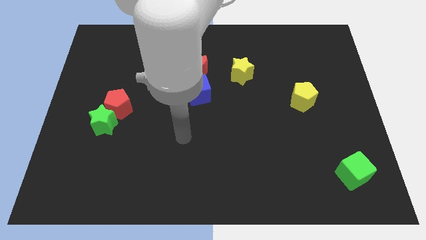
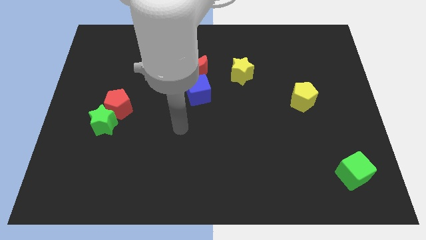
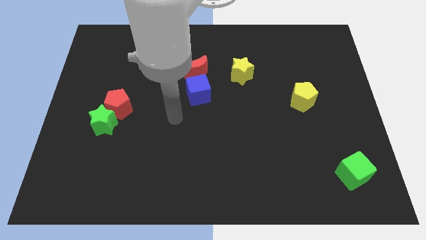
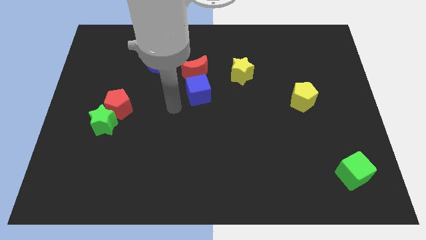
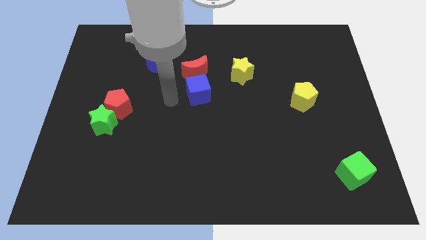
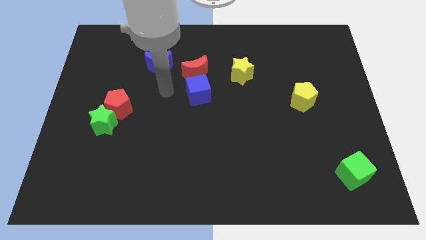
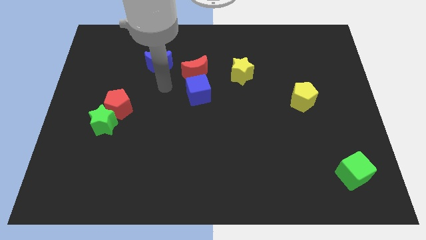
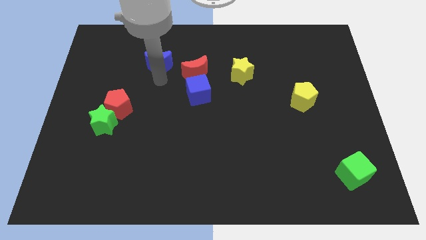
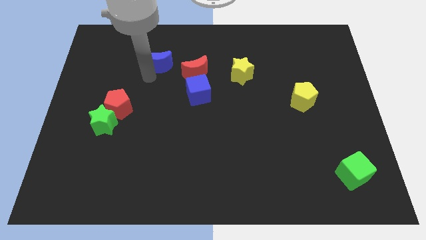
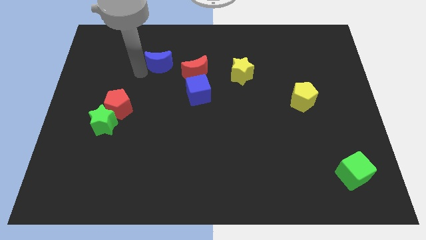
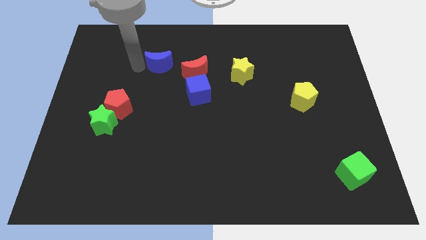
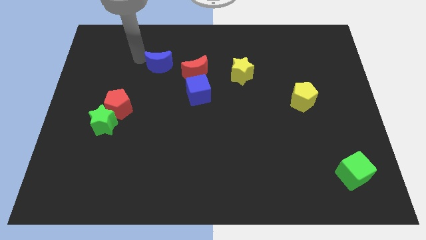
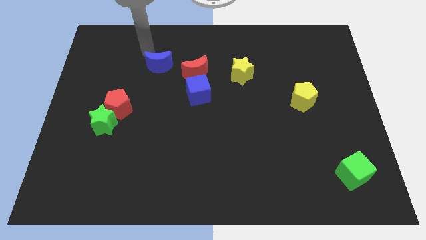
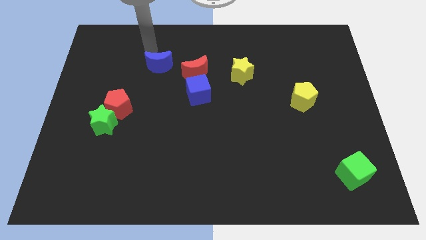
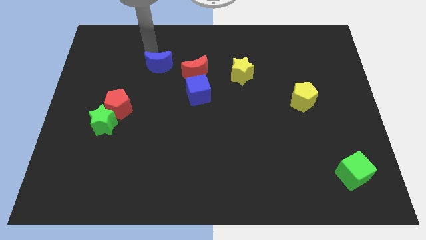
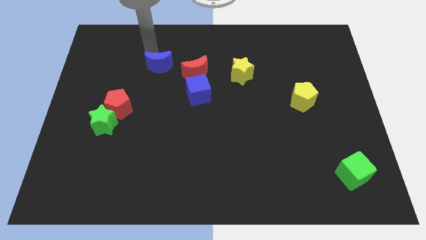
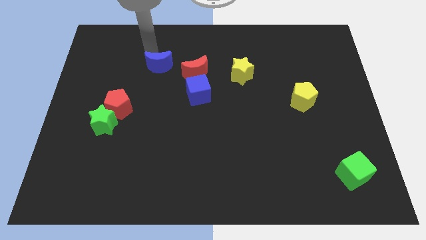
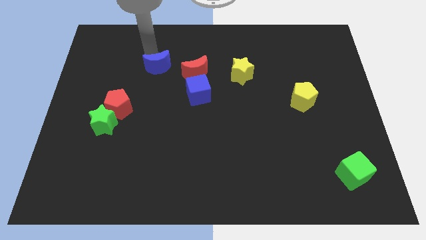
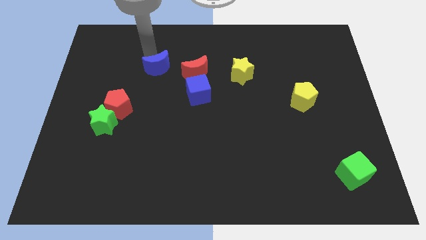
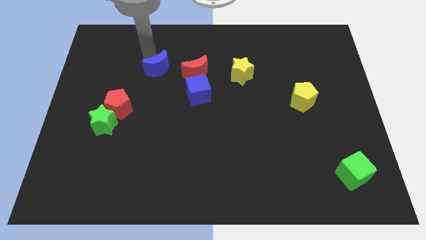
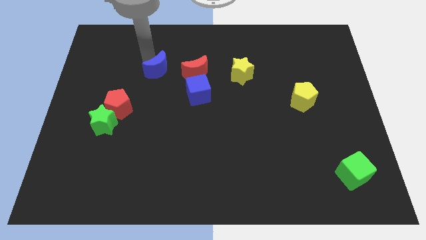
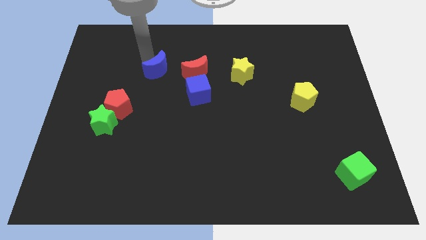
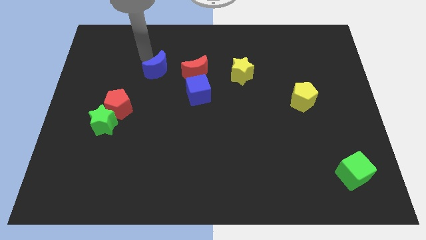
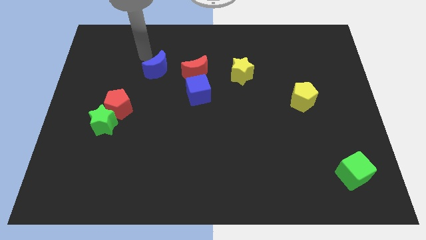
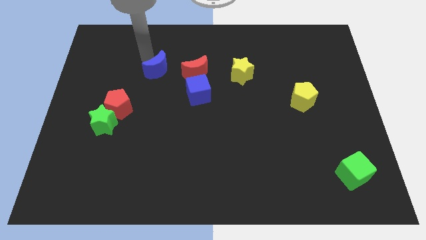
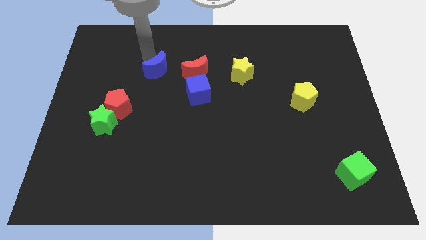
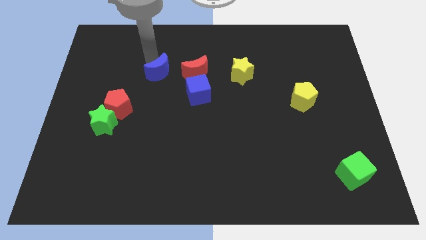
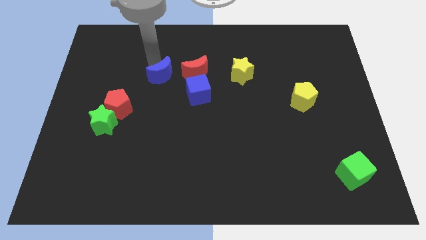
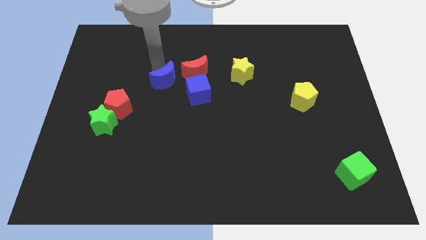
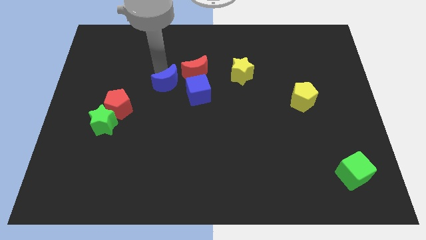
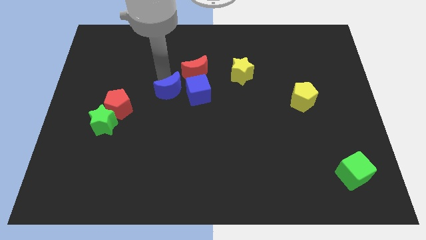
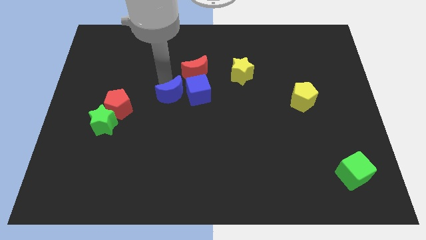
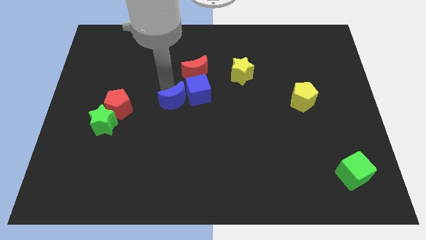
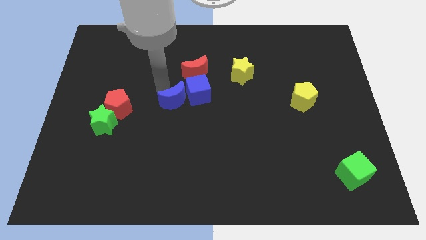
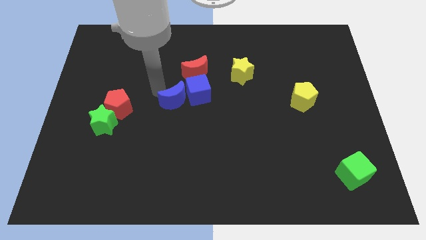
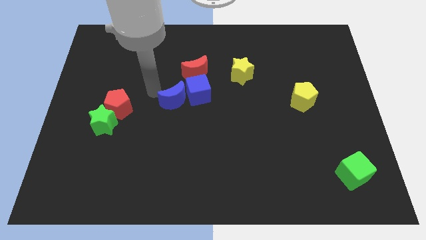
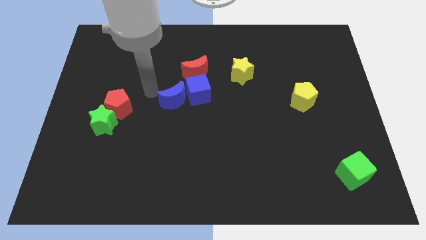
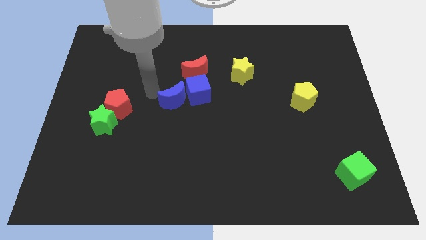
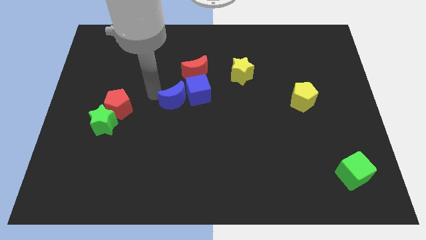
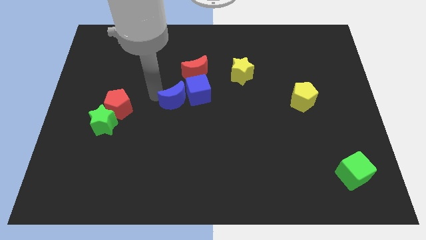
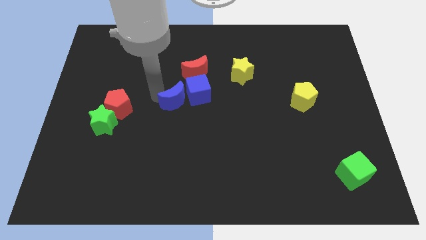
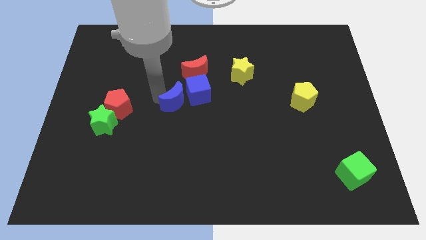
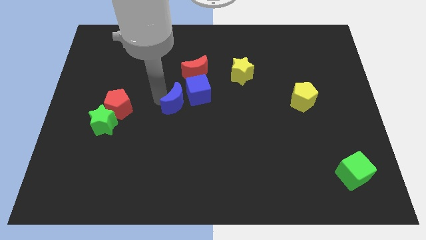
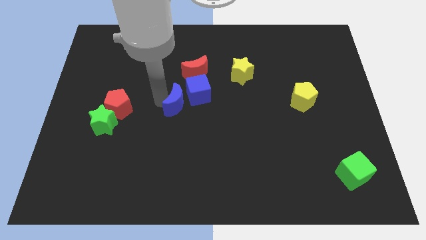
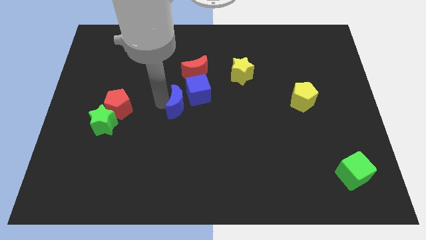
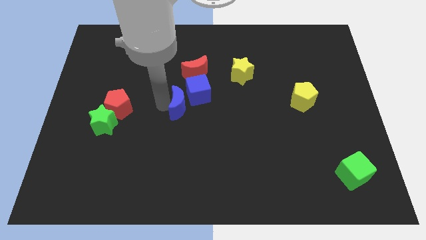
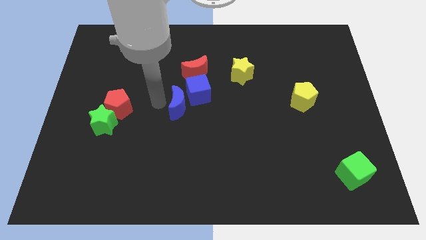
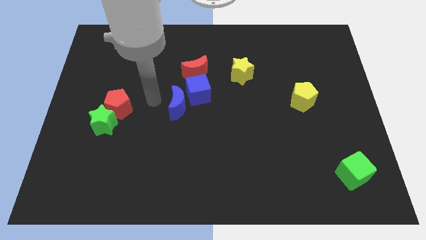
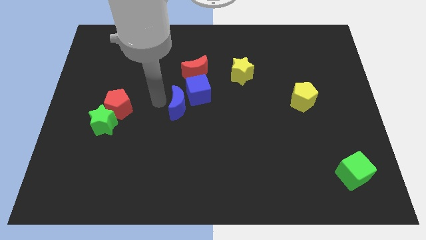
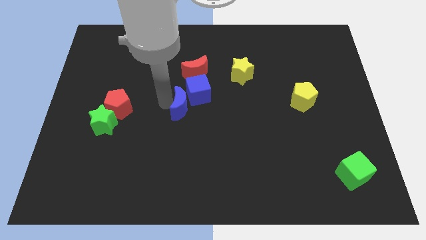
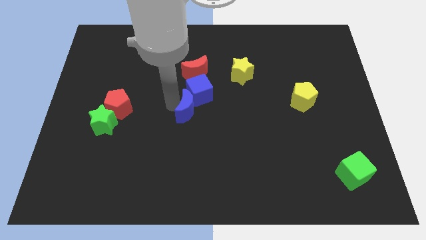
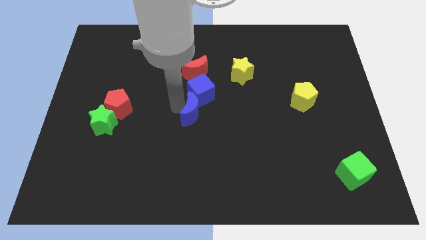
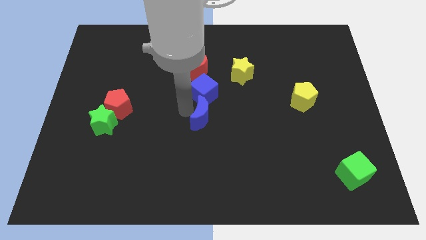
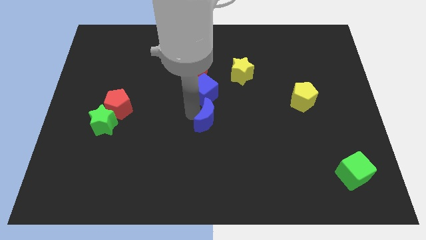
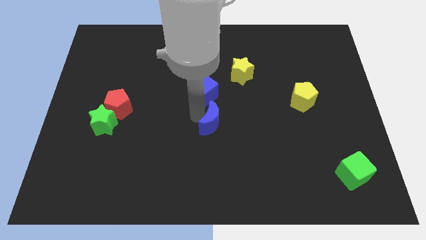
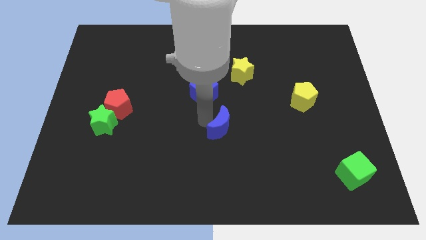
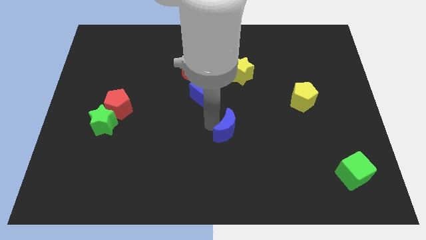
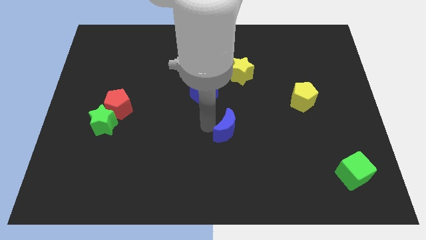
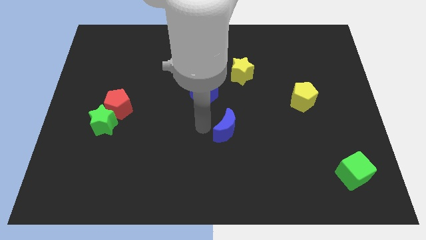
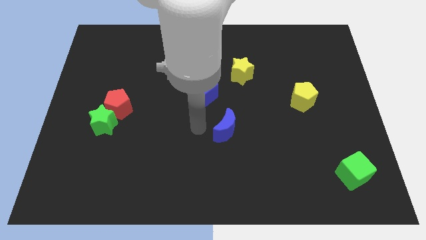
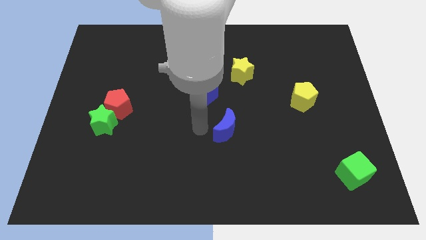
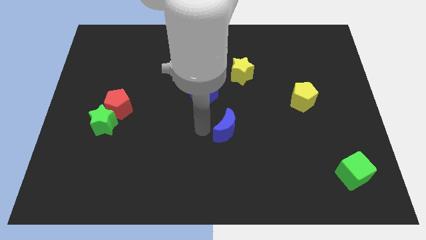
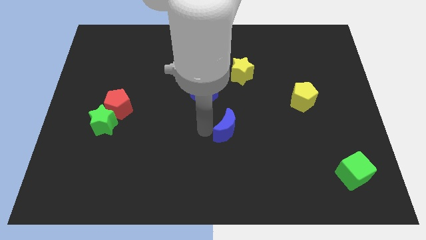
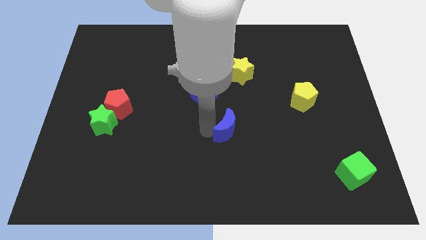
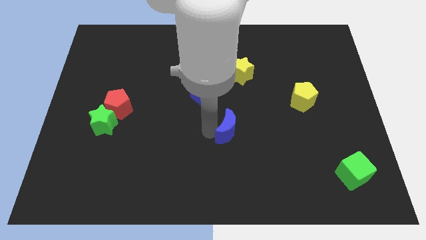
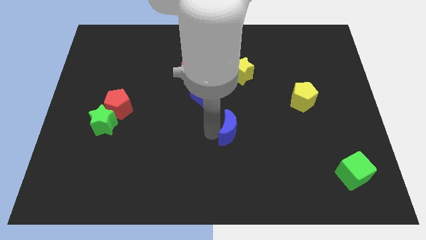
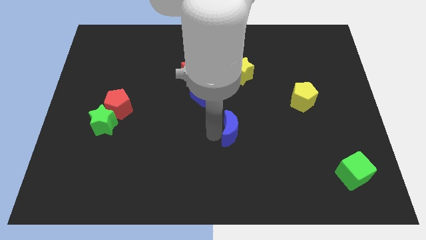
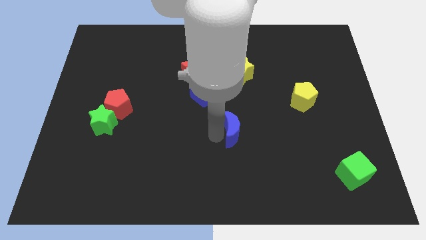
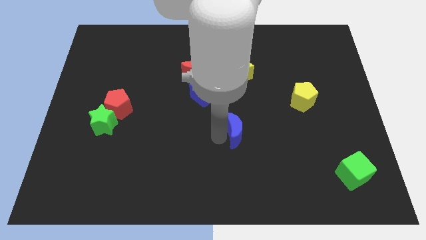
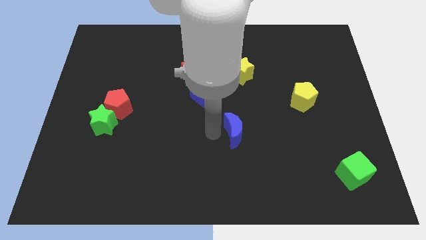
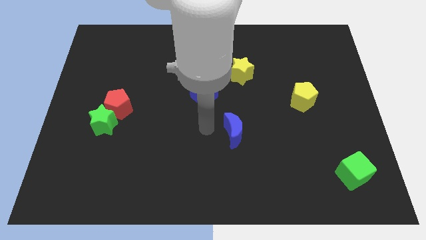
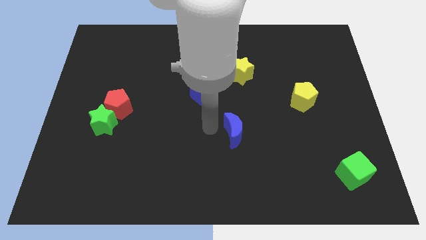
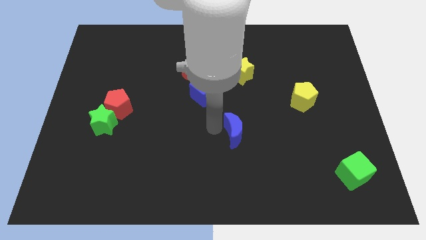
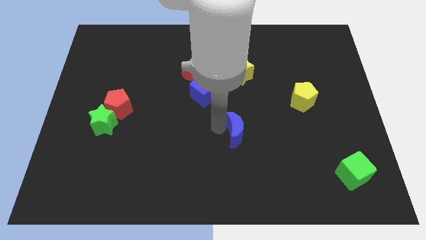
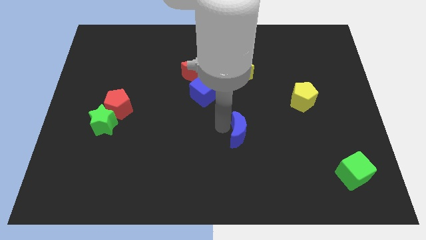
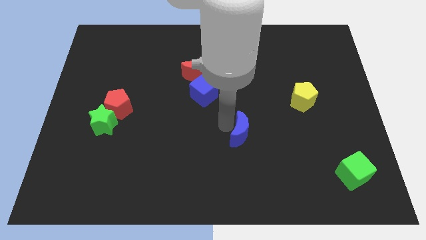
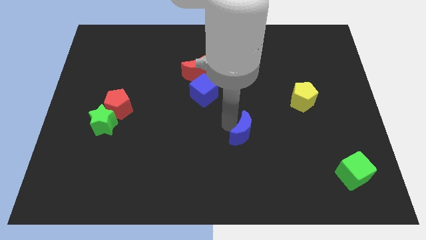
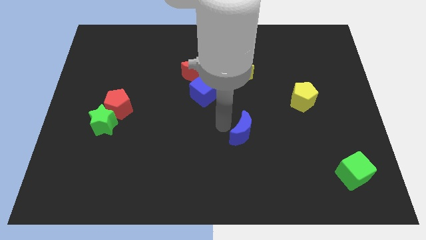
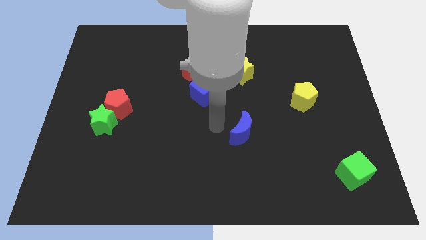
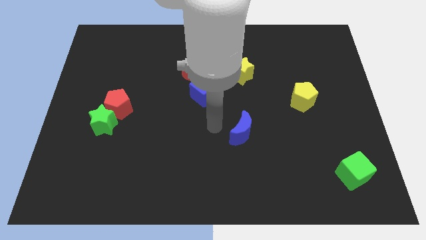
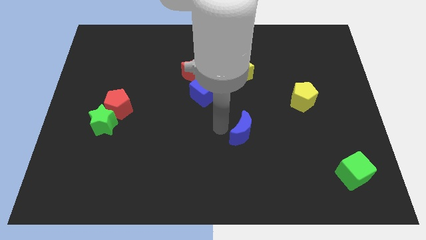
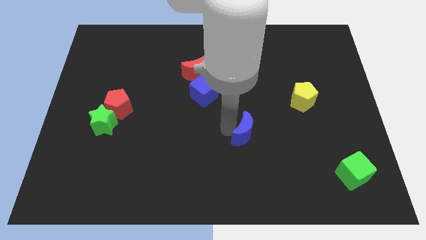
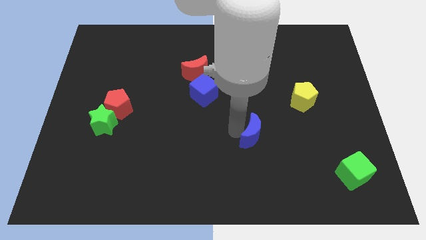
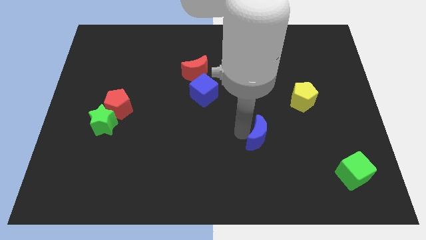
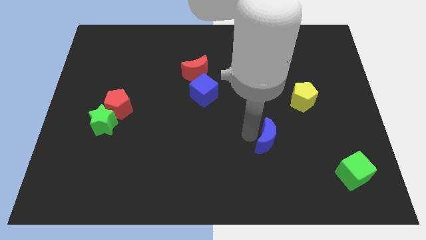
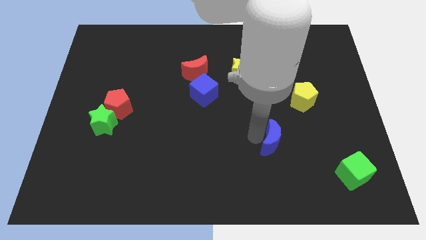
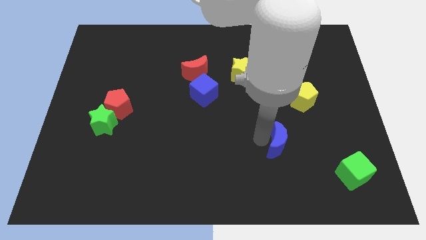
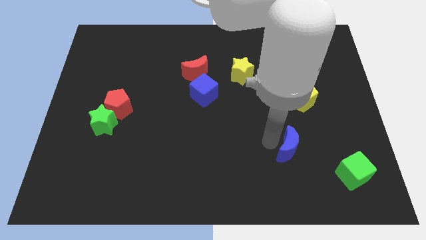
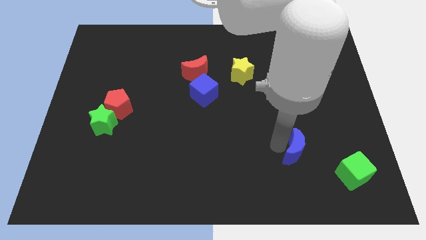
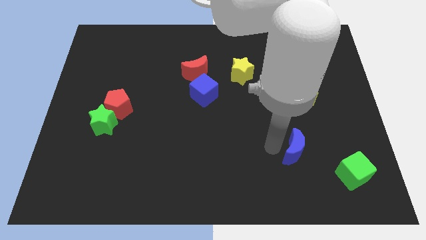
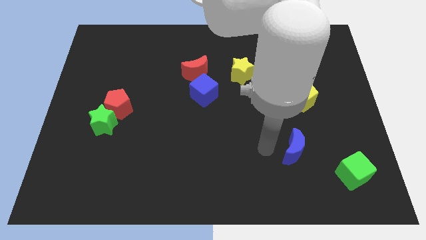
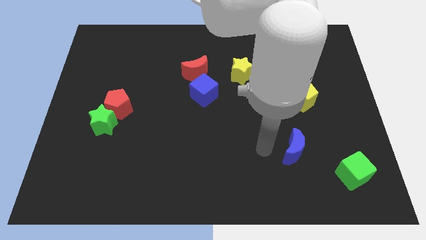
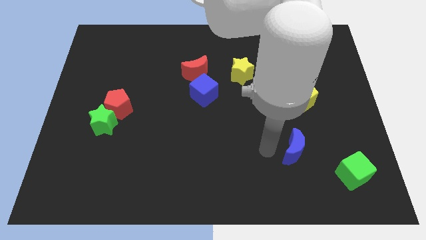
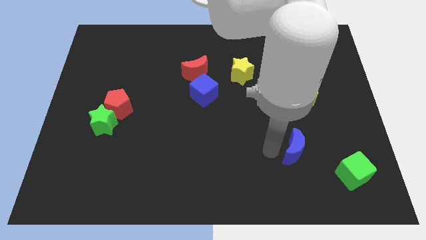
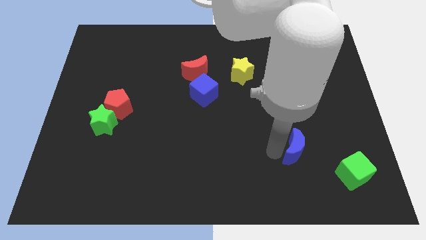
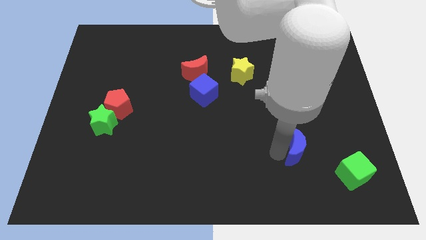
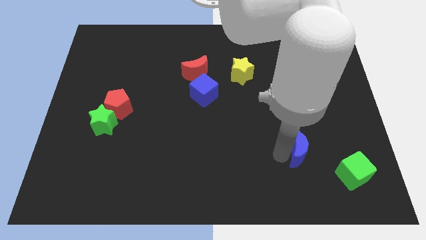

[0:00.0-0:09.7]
put the blue moon to the top left of the green cube
